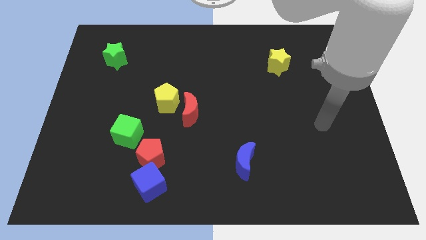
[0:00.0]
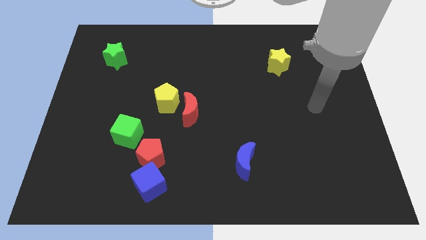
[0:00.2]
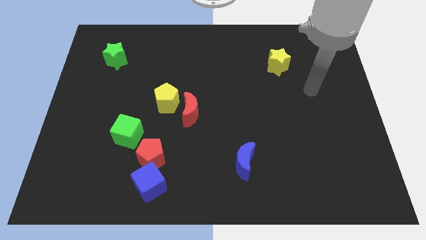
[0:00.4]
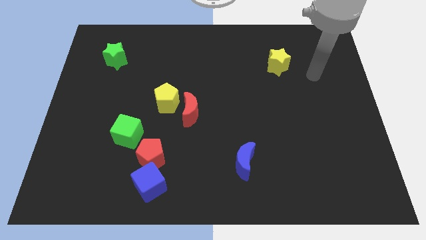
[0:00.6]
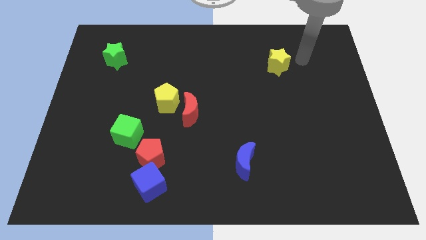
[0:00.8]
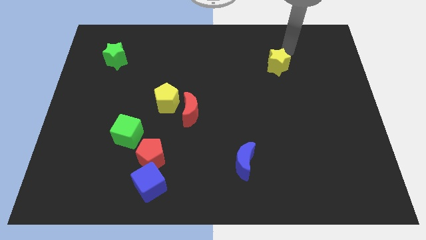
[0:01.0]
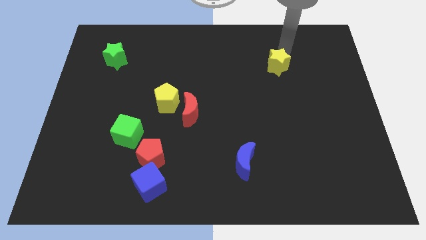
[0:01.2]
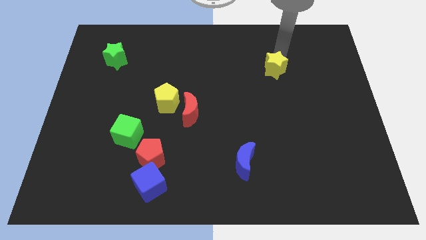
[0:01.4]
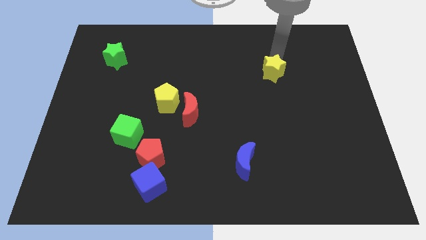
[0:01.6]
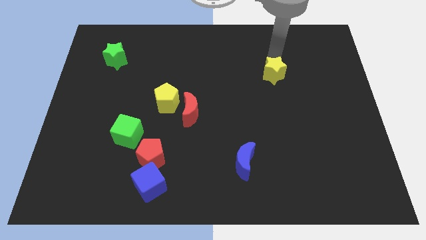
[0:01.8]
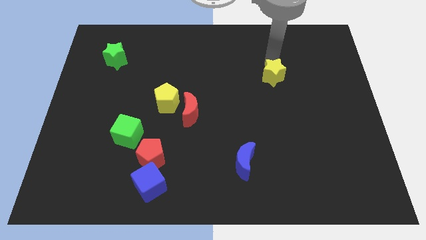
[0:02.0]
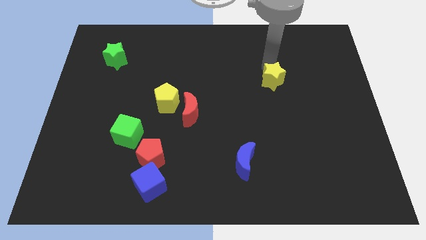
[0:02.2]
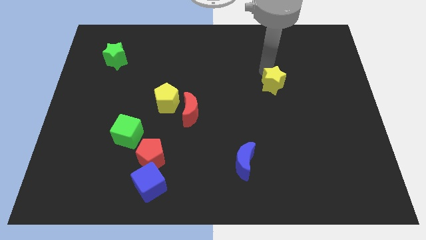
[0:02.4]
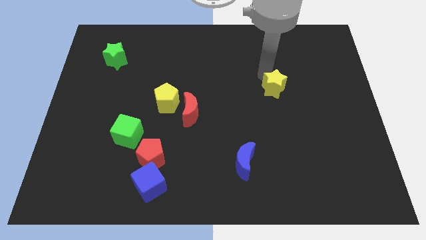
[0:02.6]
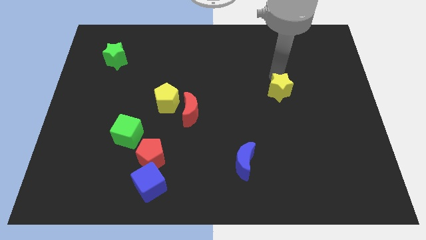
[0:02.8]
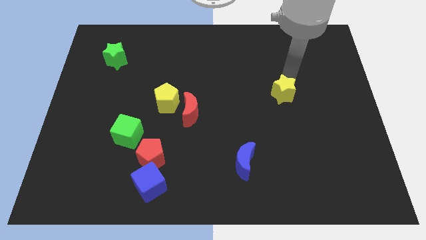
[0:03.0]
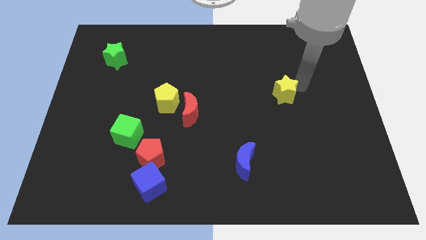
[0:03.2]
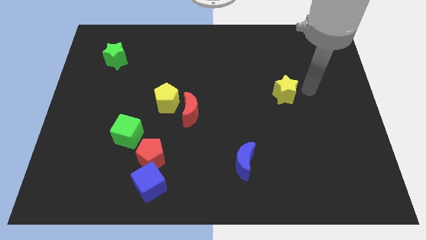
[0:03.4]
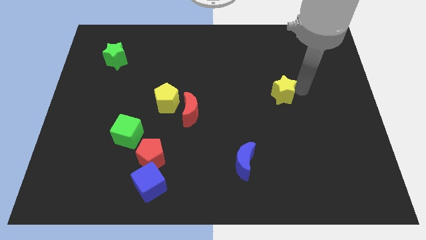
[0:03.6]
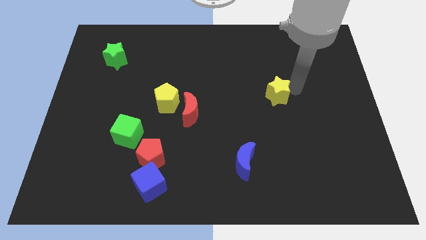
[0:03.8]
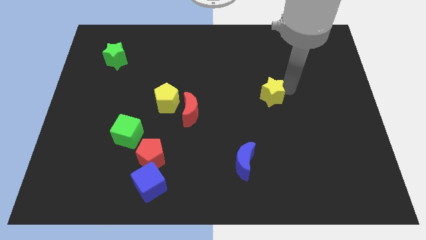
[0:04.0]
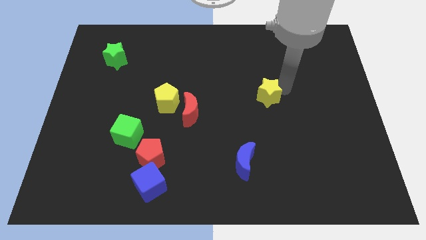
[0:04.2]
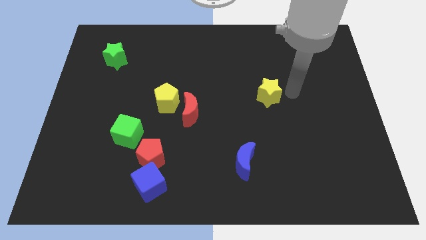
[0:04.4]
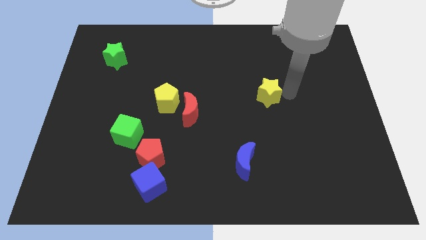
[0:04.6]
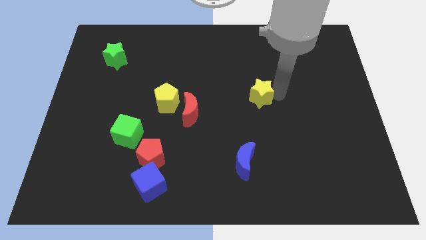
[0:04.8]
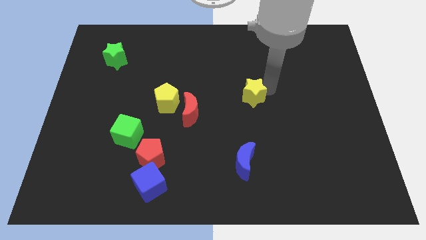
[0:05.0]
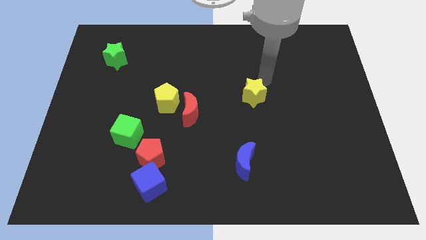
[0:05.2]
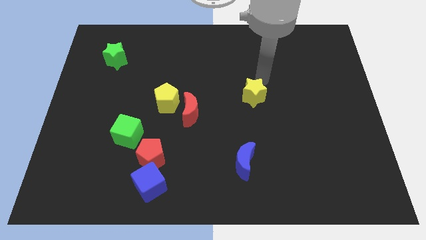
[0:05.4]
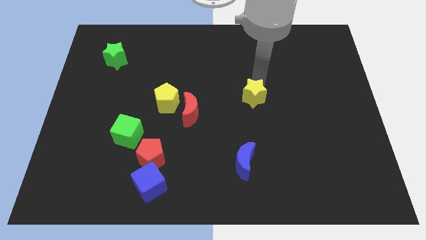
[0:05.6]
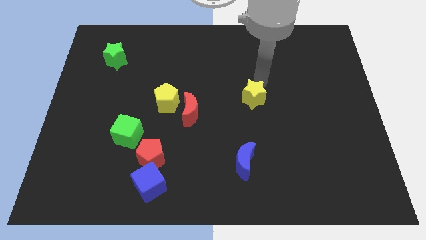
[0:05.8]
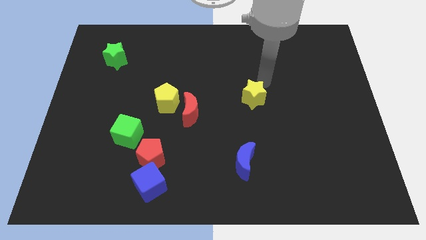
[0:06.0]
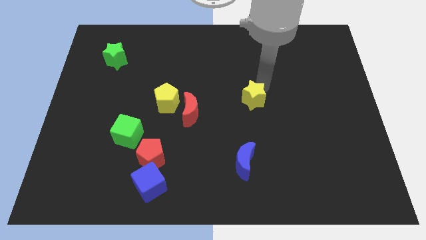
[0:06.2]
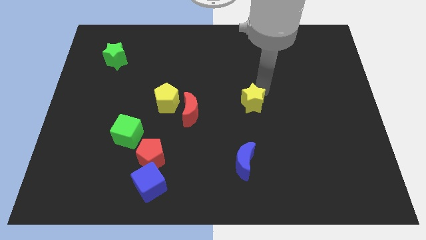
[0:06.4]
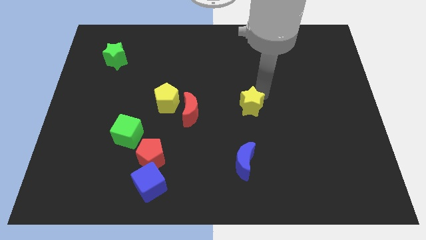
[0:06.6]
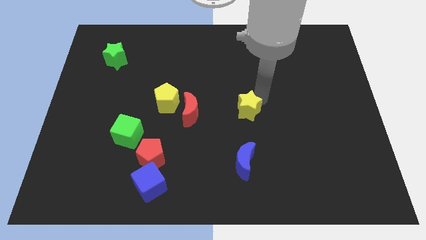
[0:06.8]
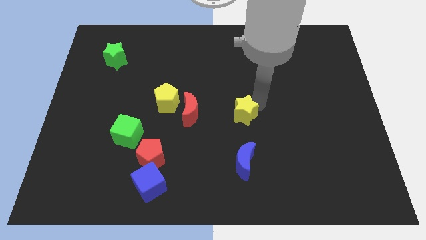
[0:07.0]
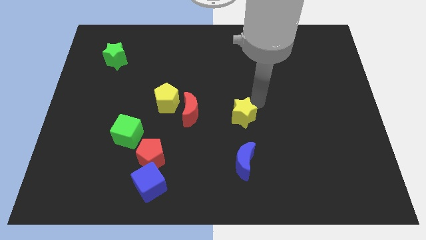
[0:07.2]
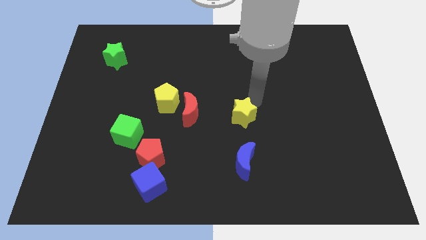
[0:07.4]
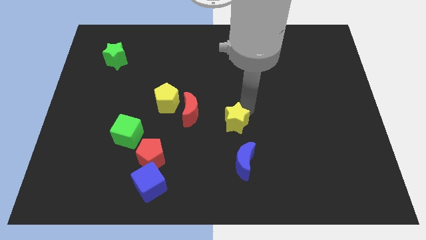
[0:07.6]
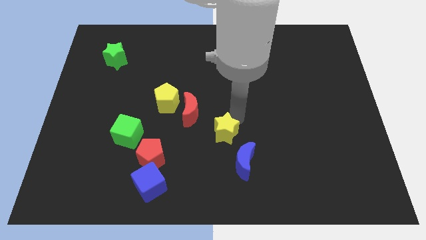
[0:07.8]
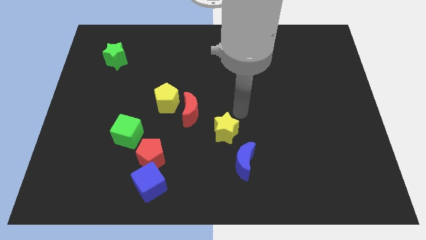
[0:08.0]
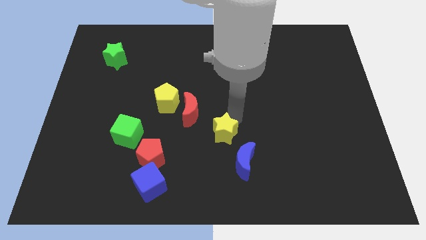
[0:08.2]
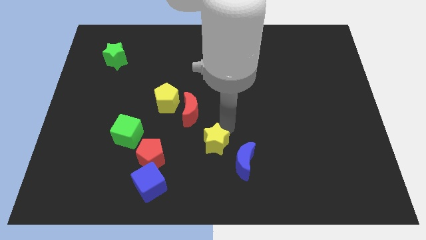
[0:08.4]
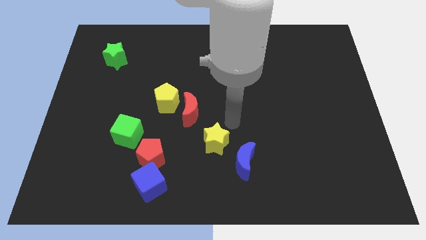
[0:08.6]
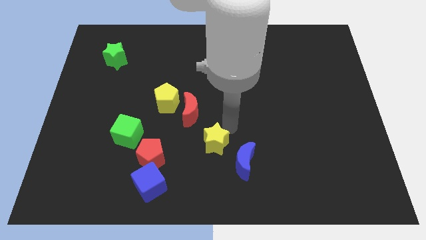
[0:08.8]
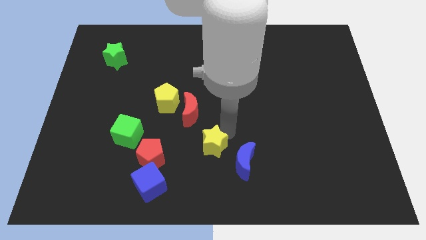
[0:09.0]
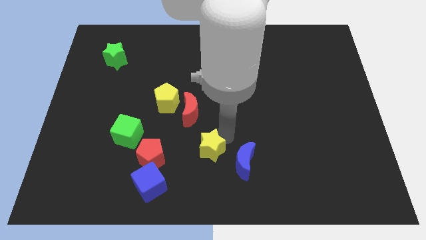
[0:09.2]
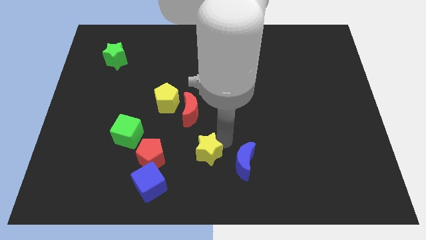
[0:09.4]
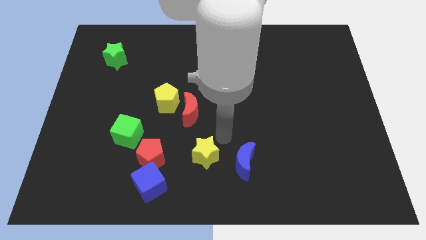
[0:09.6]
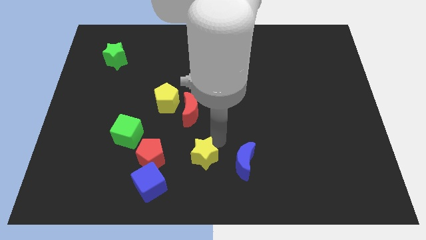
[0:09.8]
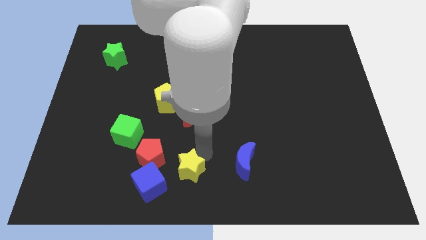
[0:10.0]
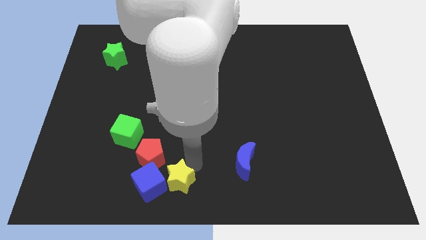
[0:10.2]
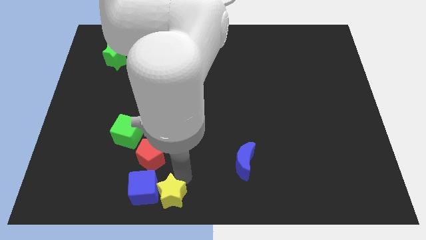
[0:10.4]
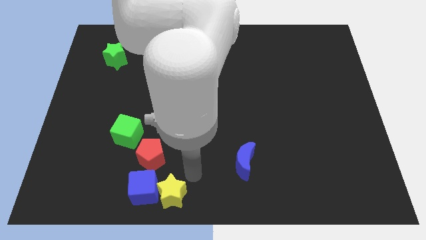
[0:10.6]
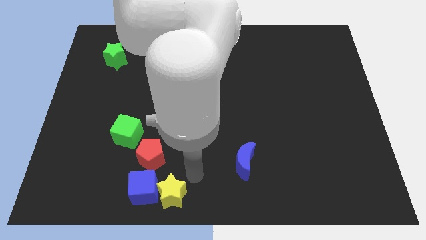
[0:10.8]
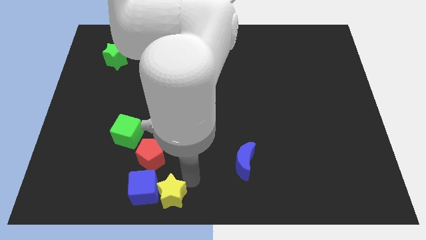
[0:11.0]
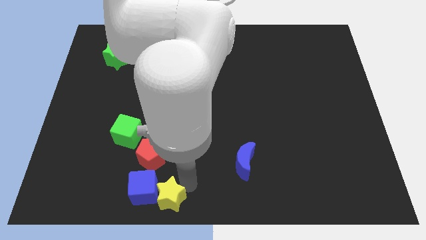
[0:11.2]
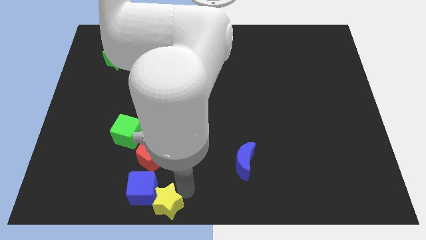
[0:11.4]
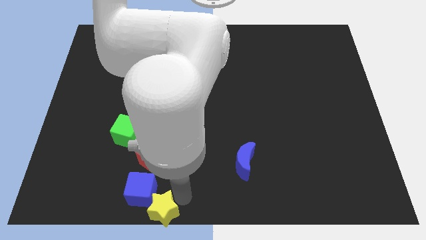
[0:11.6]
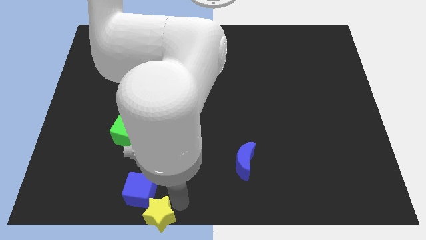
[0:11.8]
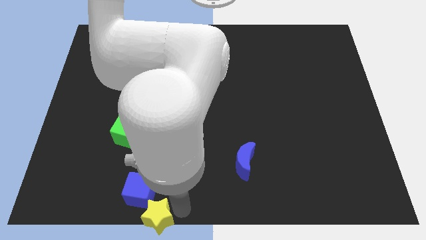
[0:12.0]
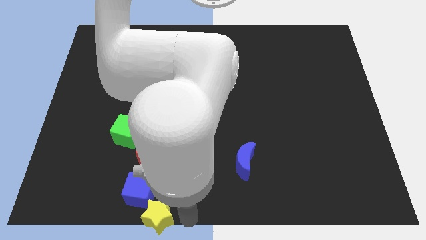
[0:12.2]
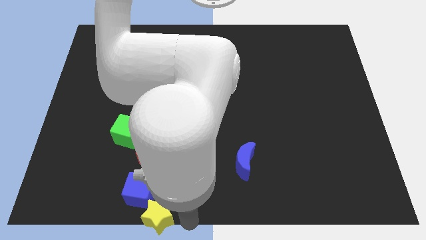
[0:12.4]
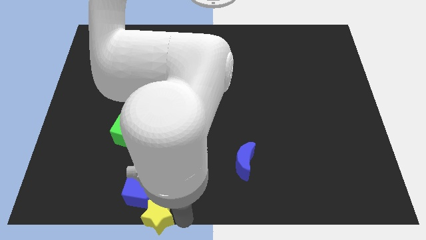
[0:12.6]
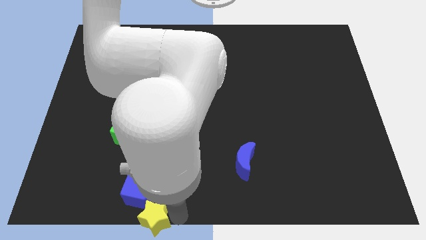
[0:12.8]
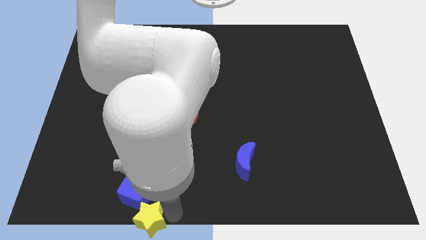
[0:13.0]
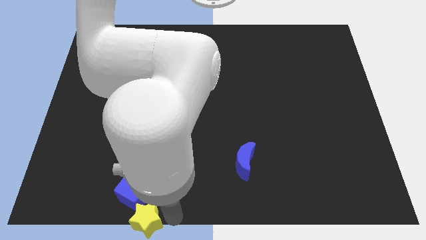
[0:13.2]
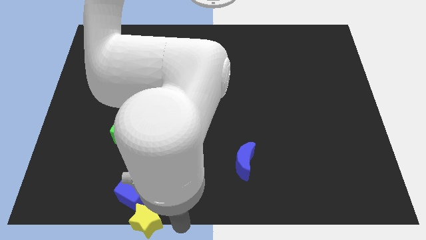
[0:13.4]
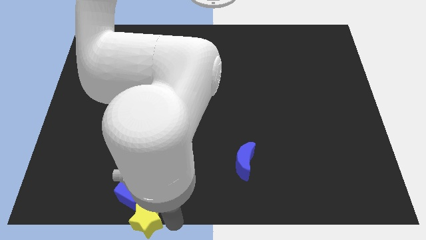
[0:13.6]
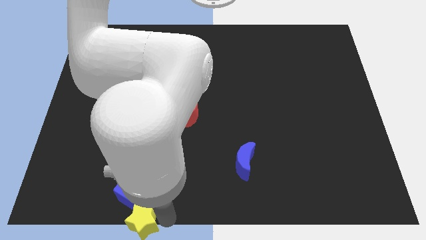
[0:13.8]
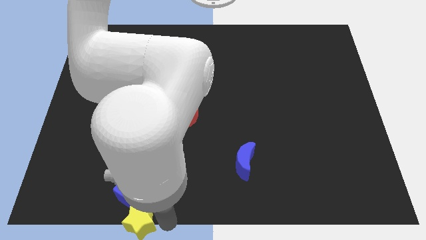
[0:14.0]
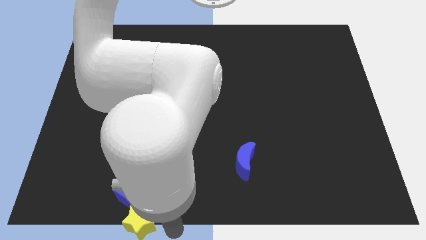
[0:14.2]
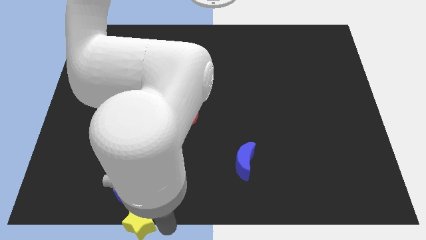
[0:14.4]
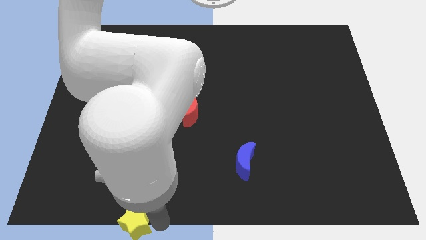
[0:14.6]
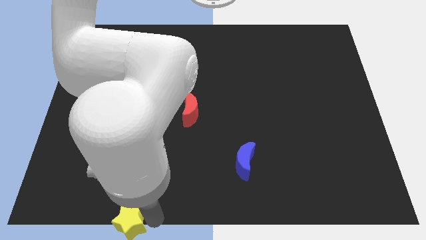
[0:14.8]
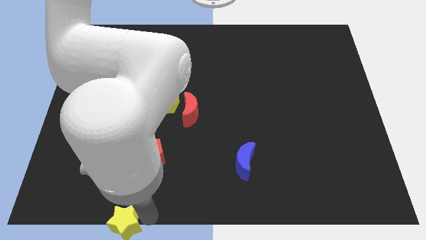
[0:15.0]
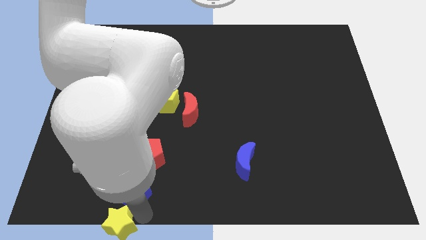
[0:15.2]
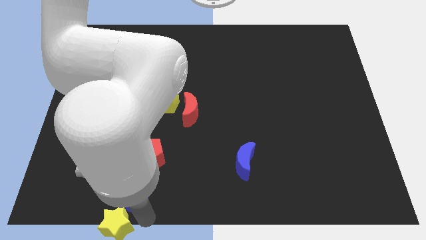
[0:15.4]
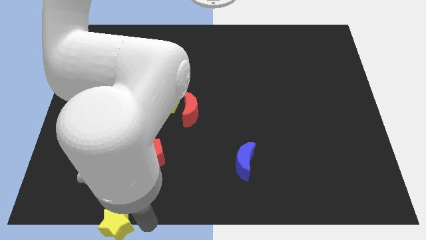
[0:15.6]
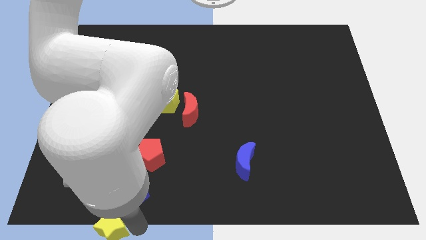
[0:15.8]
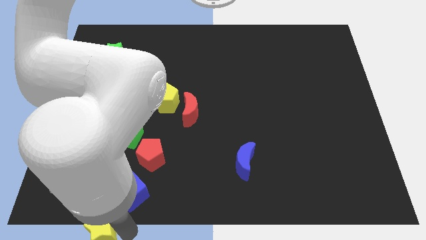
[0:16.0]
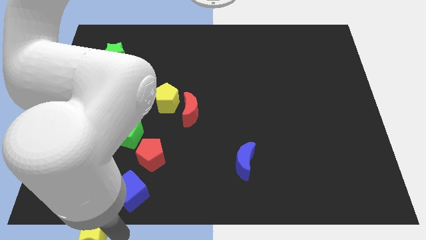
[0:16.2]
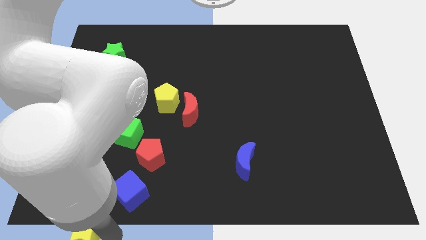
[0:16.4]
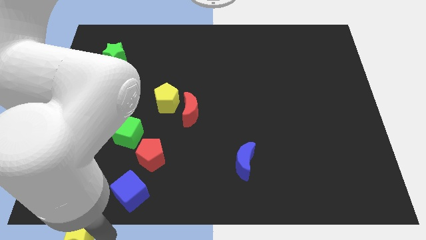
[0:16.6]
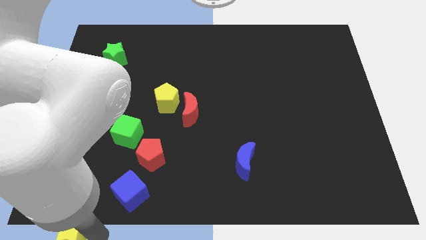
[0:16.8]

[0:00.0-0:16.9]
slide the yellow star to the bottom left of the board
